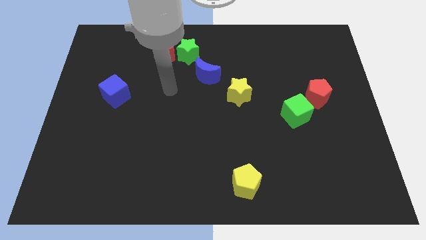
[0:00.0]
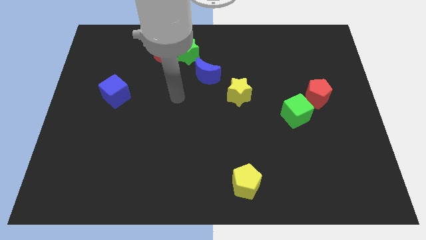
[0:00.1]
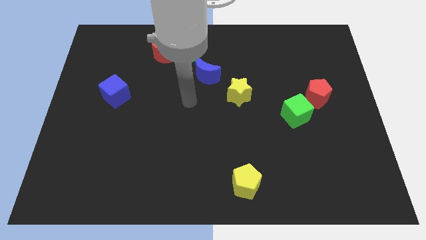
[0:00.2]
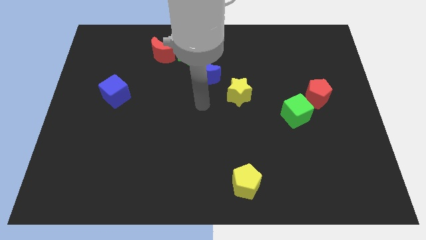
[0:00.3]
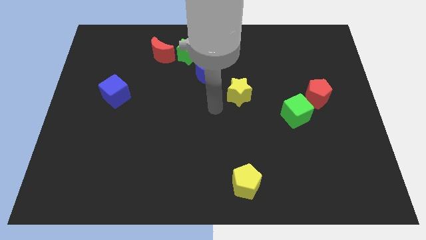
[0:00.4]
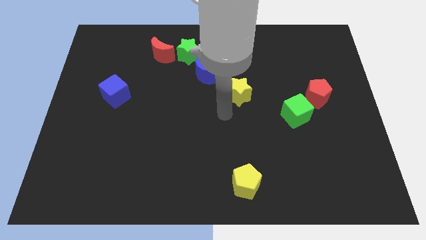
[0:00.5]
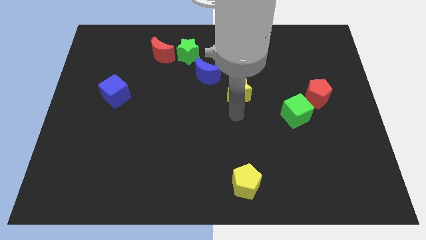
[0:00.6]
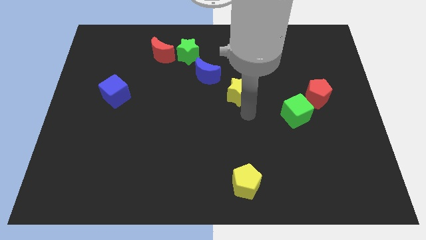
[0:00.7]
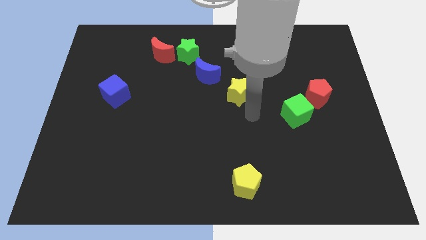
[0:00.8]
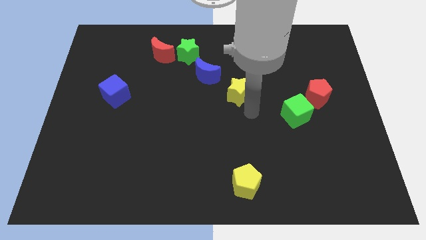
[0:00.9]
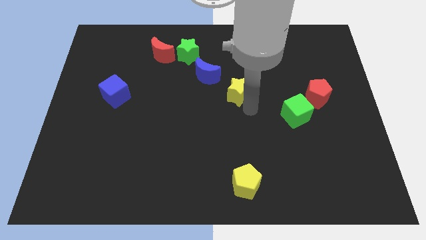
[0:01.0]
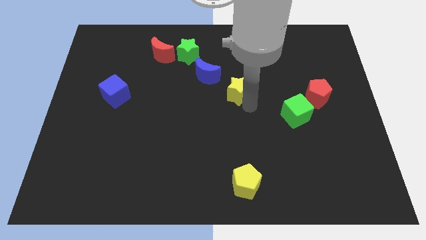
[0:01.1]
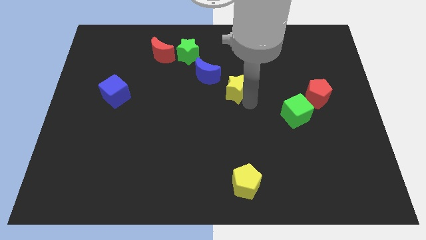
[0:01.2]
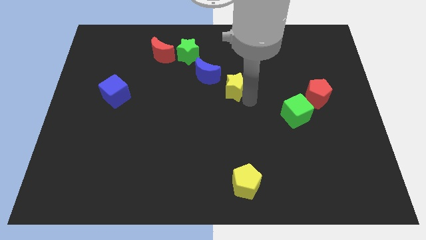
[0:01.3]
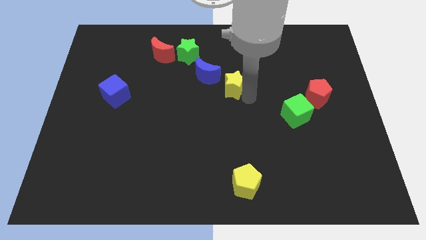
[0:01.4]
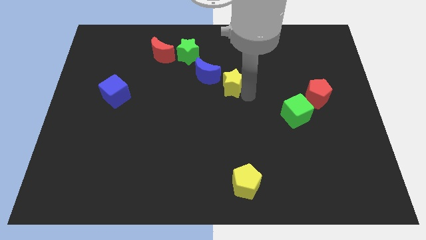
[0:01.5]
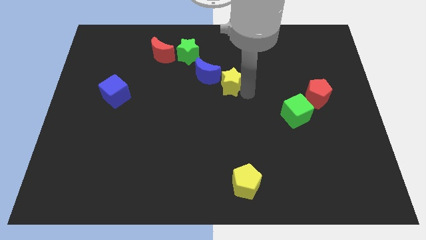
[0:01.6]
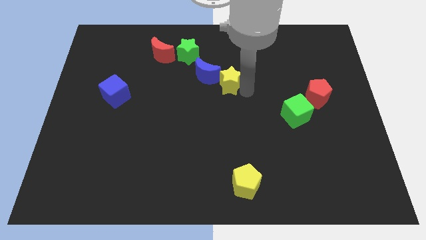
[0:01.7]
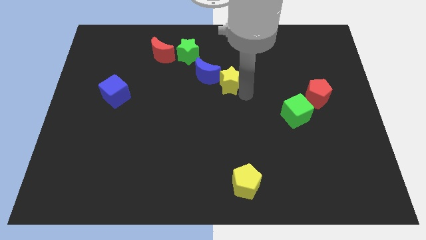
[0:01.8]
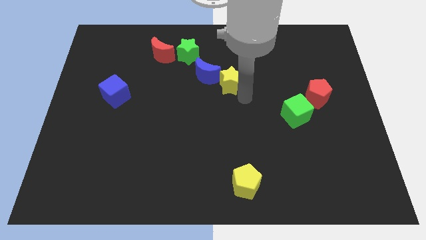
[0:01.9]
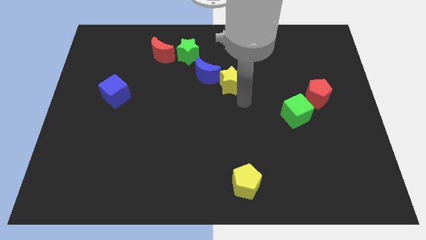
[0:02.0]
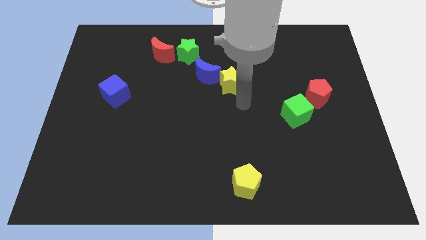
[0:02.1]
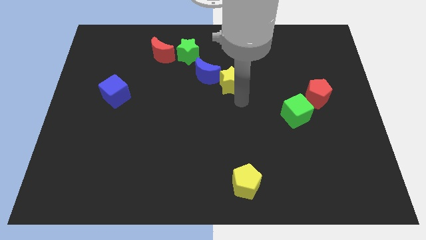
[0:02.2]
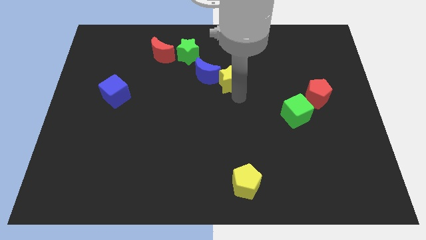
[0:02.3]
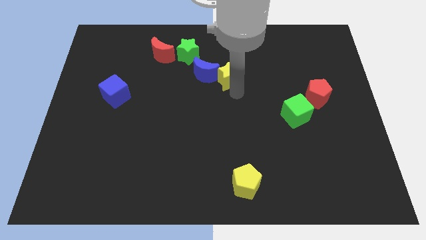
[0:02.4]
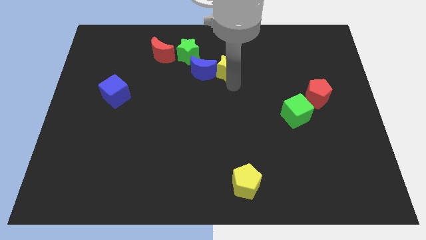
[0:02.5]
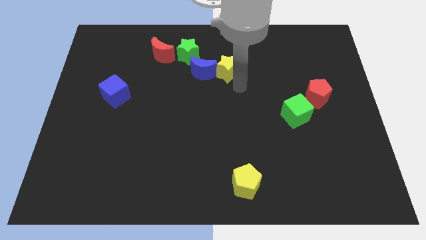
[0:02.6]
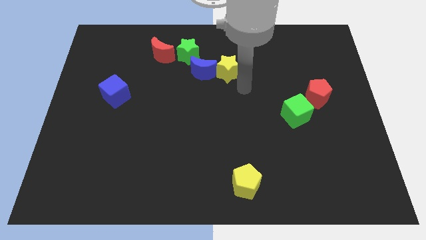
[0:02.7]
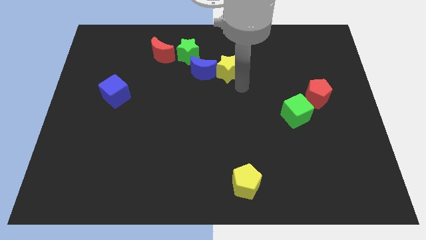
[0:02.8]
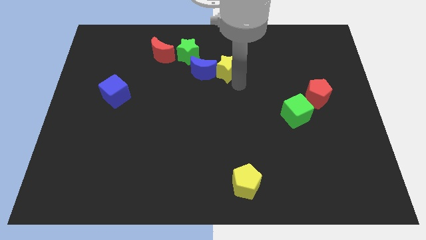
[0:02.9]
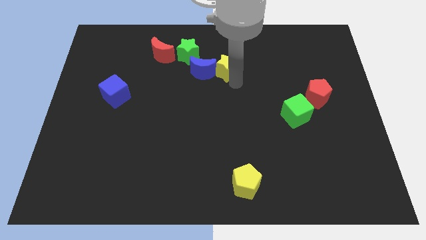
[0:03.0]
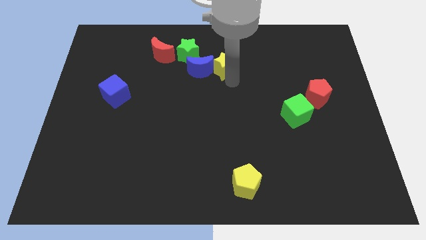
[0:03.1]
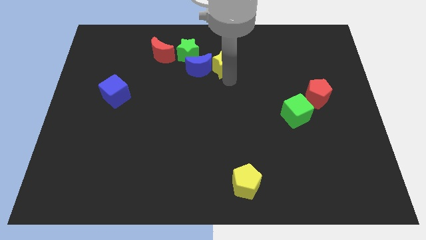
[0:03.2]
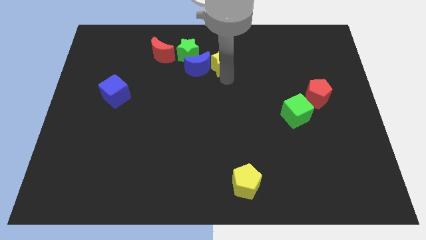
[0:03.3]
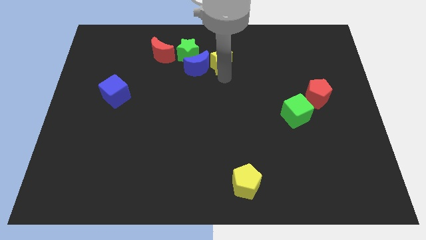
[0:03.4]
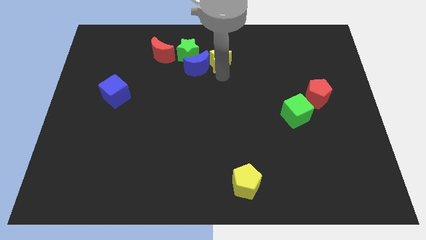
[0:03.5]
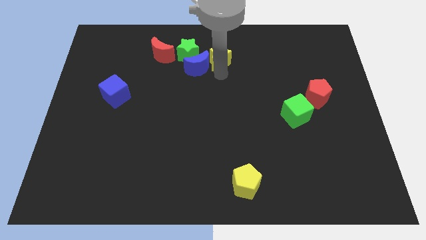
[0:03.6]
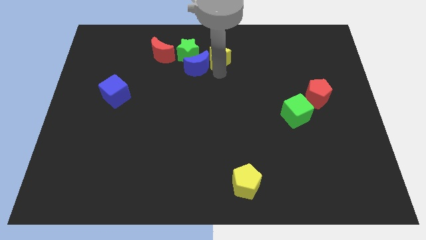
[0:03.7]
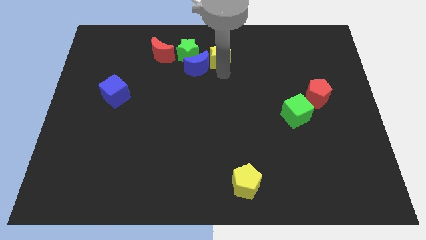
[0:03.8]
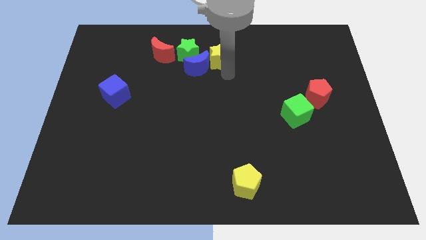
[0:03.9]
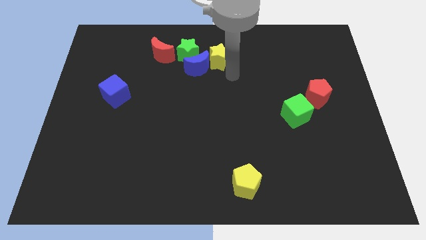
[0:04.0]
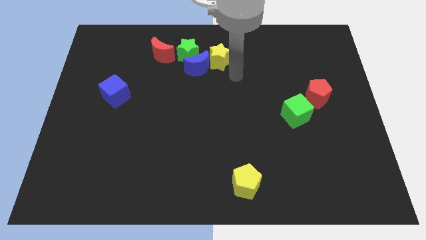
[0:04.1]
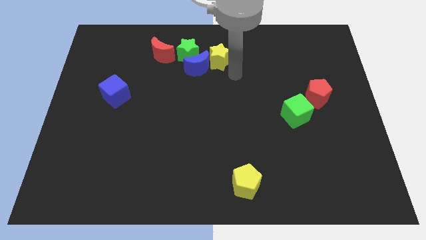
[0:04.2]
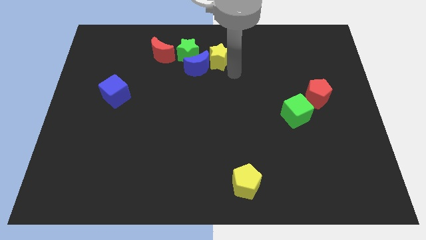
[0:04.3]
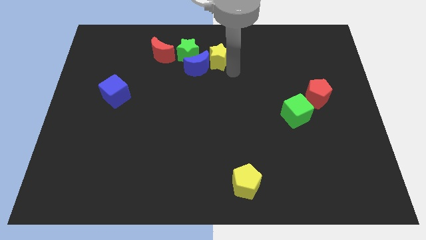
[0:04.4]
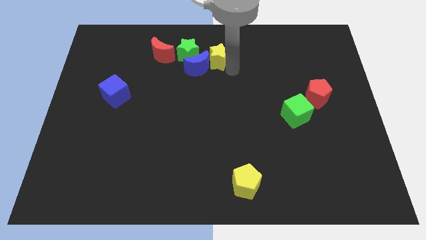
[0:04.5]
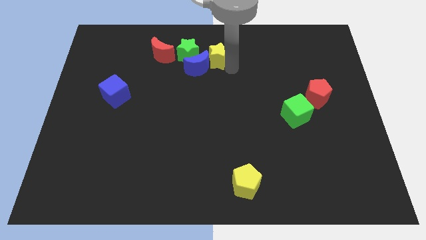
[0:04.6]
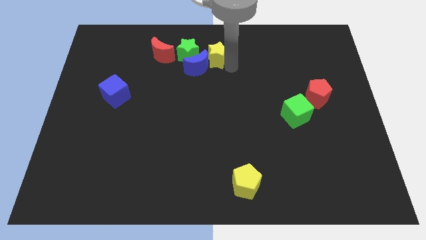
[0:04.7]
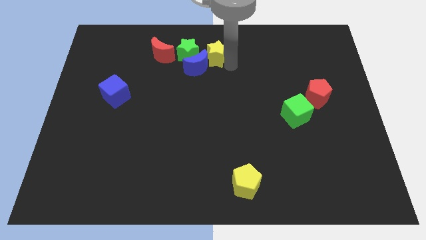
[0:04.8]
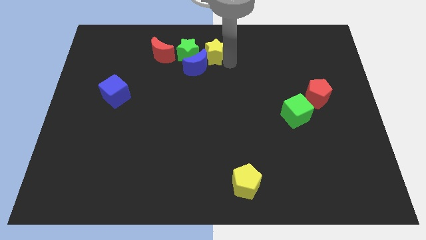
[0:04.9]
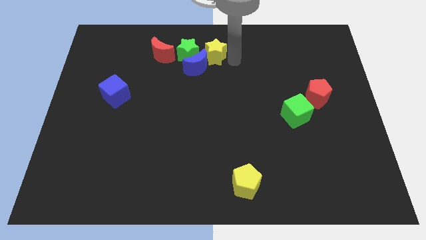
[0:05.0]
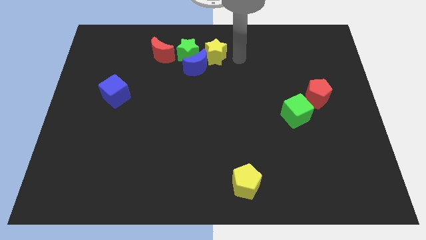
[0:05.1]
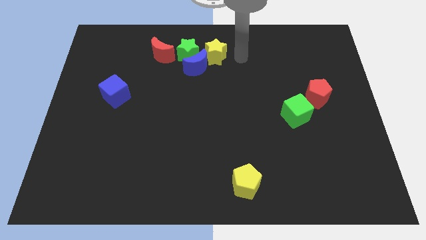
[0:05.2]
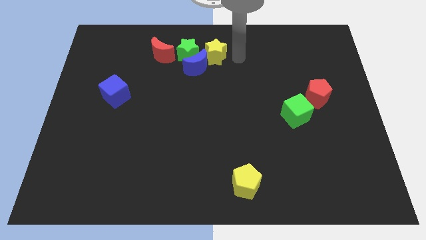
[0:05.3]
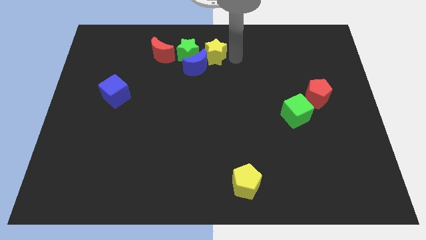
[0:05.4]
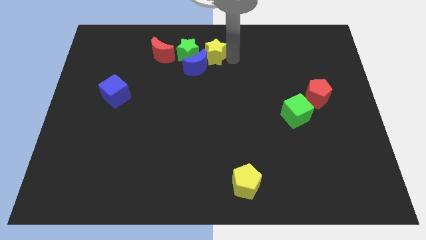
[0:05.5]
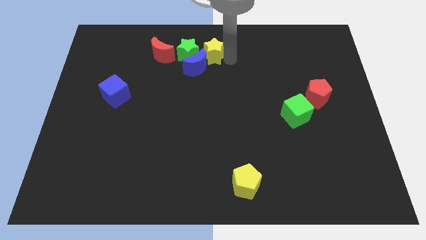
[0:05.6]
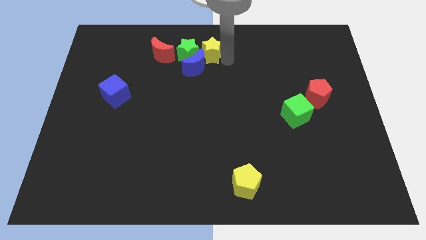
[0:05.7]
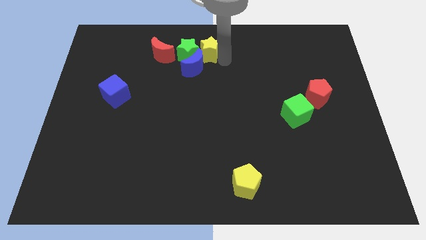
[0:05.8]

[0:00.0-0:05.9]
push the yellow star close to the green star

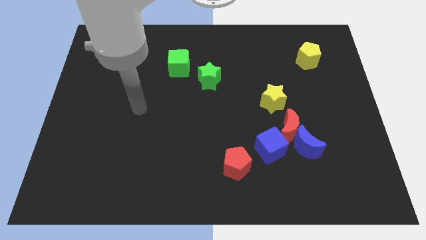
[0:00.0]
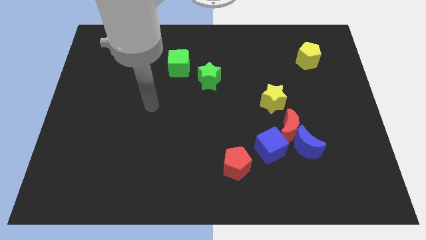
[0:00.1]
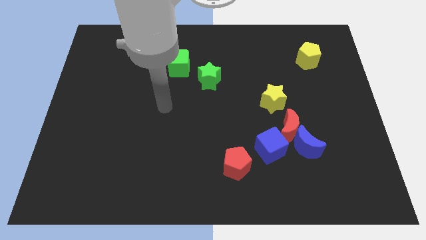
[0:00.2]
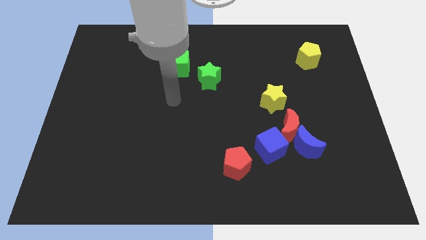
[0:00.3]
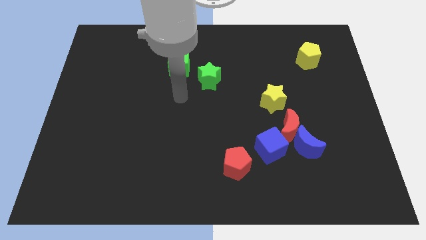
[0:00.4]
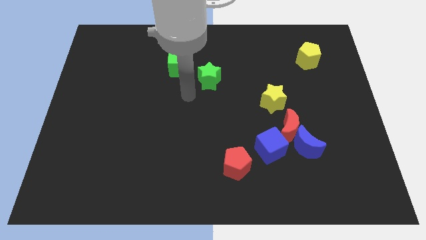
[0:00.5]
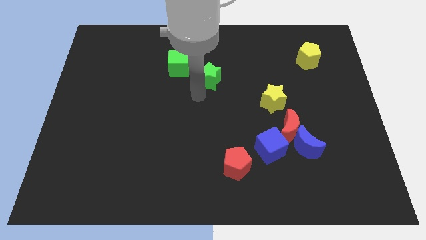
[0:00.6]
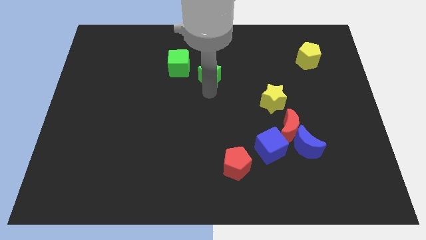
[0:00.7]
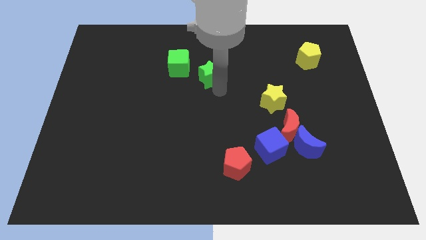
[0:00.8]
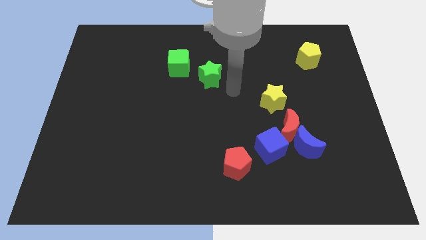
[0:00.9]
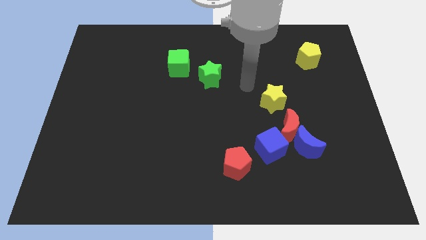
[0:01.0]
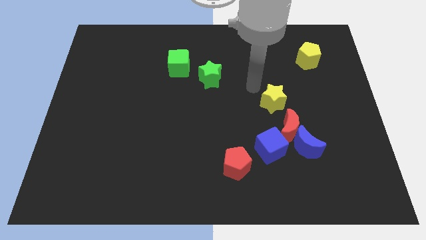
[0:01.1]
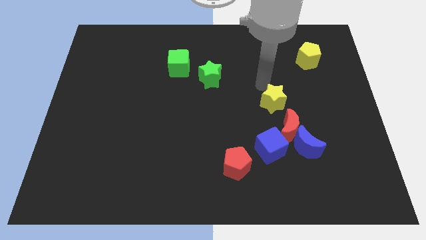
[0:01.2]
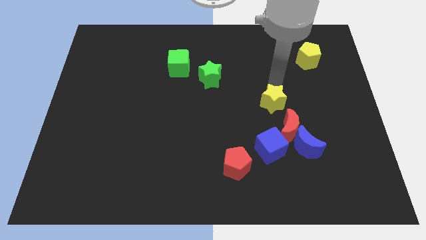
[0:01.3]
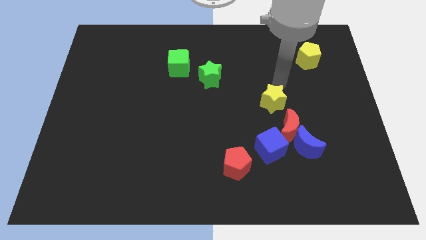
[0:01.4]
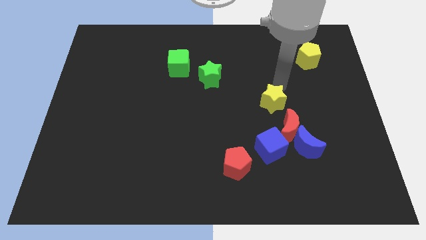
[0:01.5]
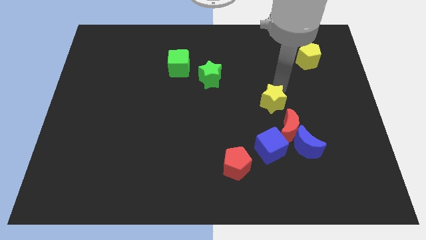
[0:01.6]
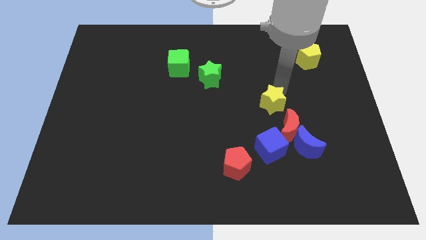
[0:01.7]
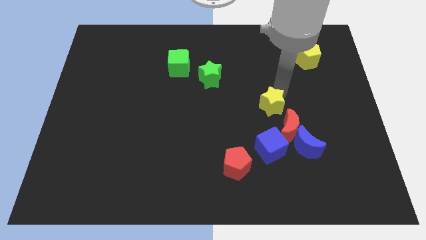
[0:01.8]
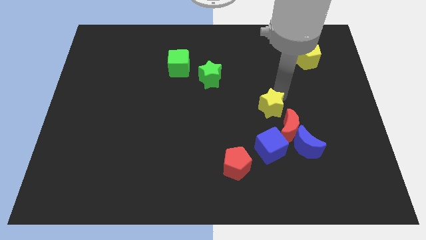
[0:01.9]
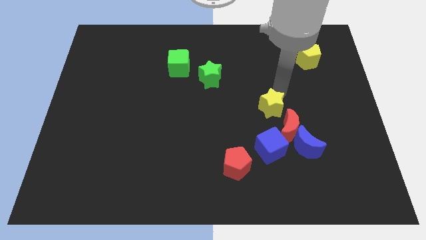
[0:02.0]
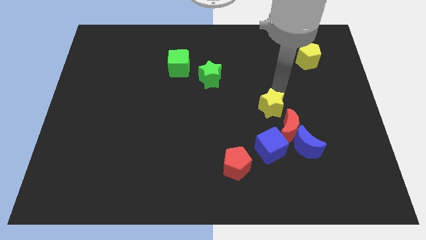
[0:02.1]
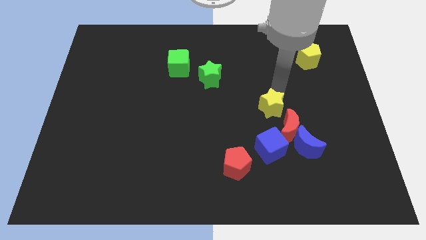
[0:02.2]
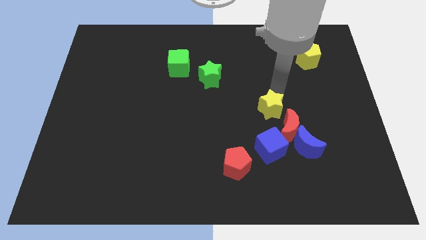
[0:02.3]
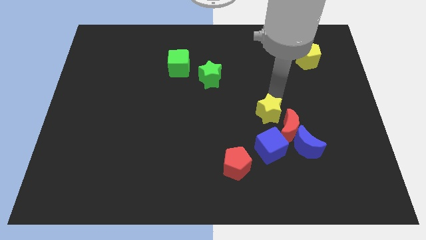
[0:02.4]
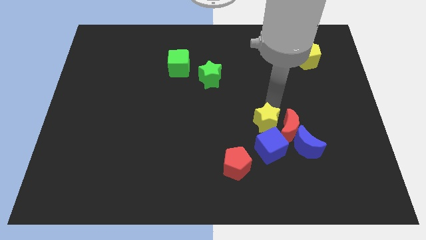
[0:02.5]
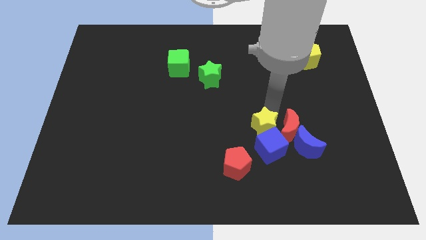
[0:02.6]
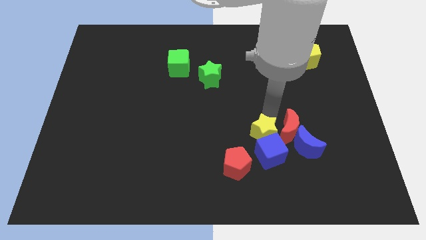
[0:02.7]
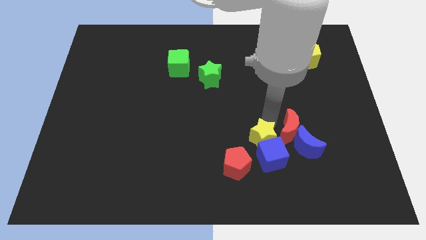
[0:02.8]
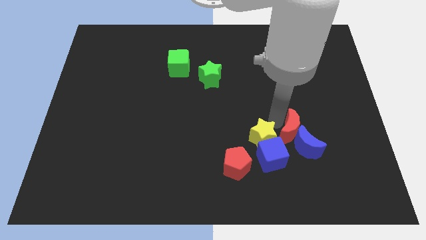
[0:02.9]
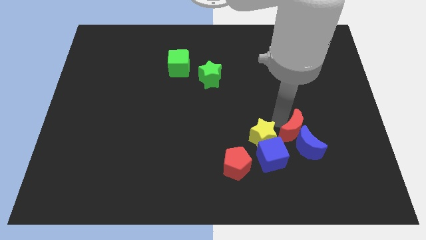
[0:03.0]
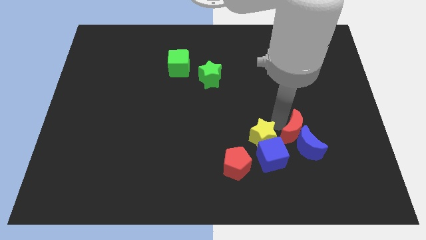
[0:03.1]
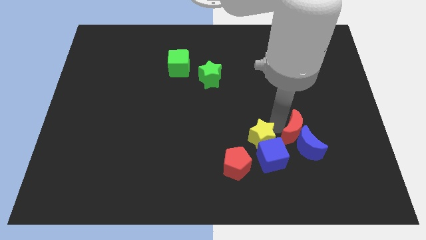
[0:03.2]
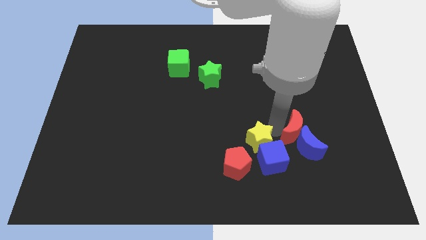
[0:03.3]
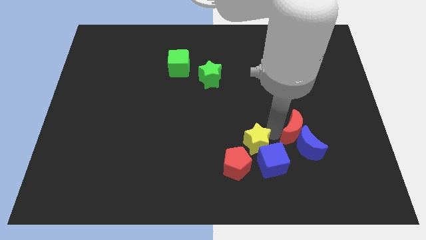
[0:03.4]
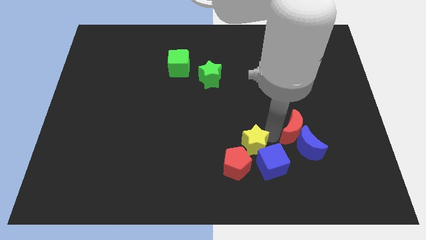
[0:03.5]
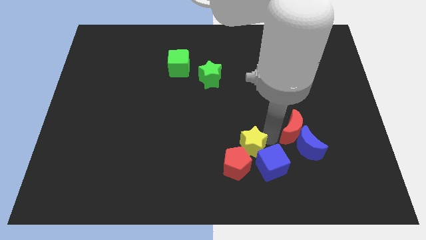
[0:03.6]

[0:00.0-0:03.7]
push the yellow star towards the red pentagon
